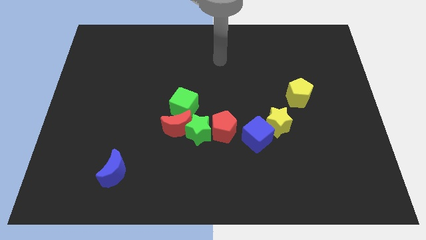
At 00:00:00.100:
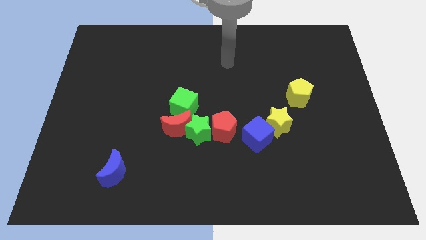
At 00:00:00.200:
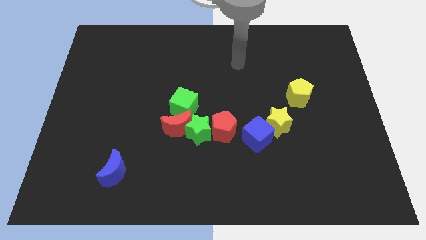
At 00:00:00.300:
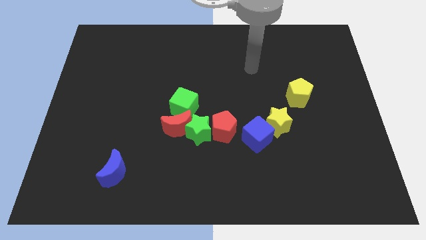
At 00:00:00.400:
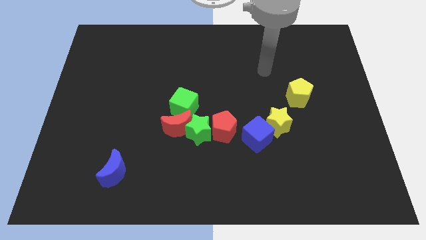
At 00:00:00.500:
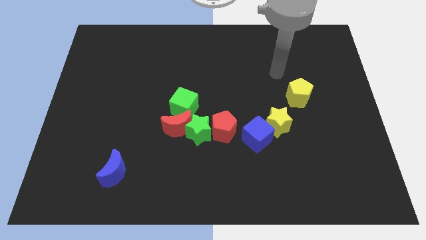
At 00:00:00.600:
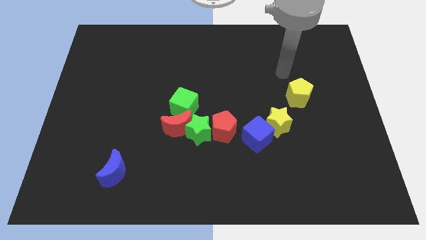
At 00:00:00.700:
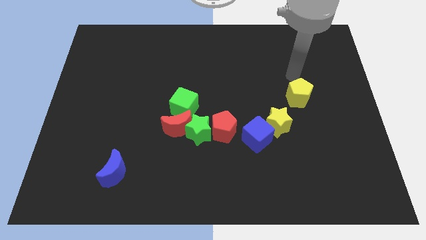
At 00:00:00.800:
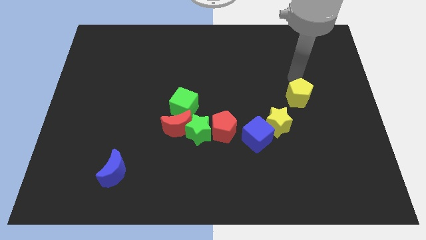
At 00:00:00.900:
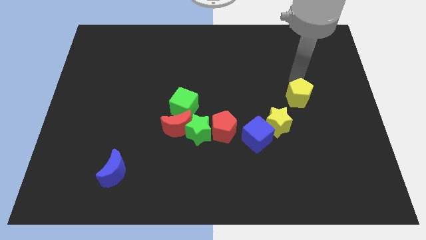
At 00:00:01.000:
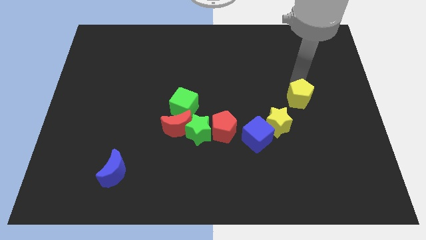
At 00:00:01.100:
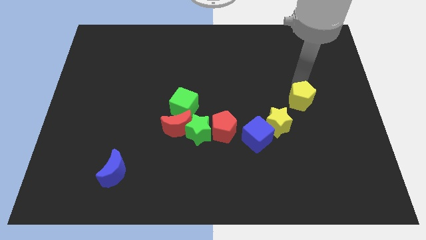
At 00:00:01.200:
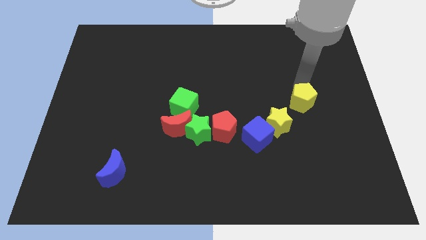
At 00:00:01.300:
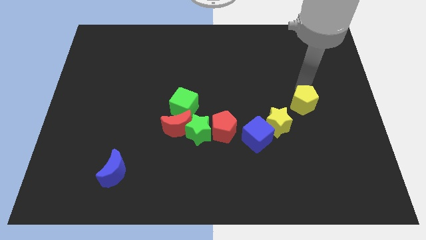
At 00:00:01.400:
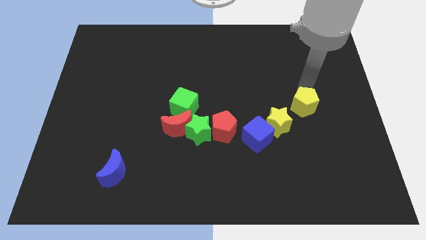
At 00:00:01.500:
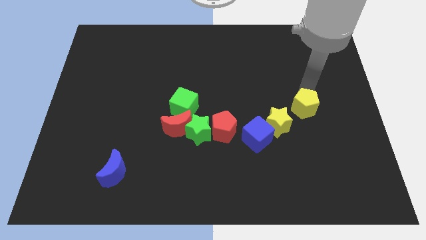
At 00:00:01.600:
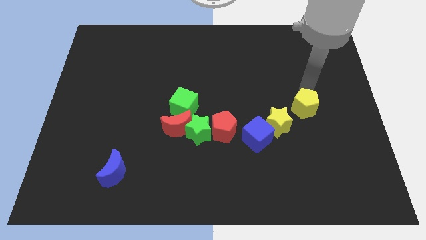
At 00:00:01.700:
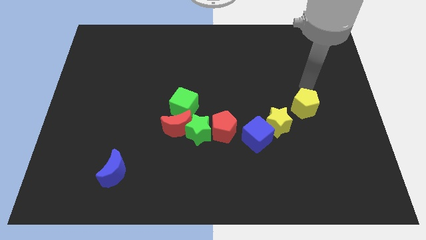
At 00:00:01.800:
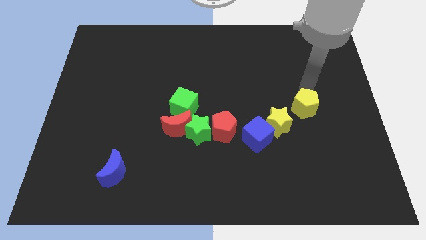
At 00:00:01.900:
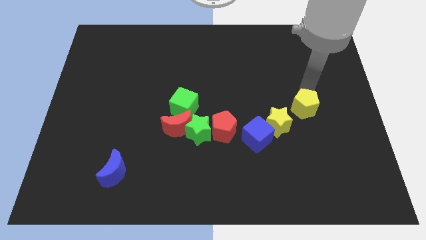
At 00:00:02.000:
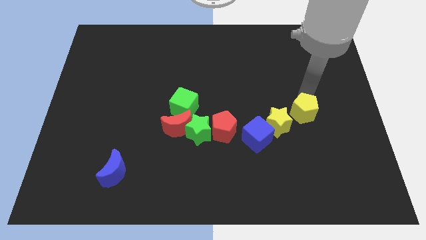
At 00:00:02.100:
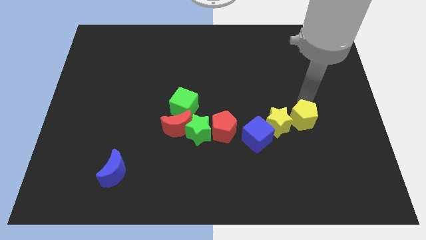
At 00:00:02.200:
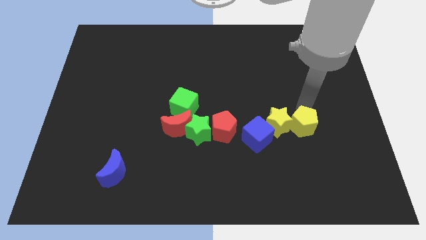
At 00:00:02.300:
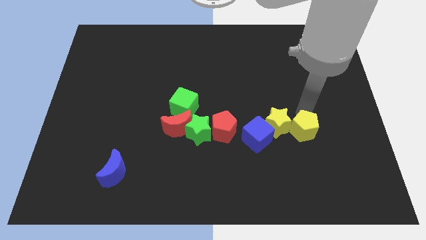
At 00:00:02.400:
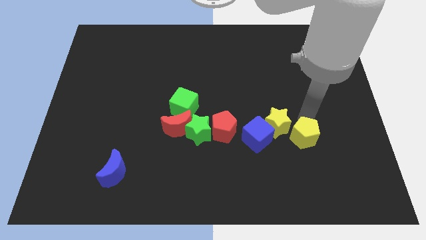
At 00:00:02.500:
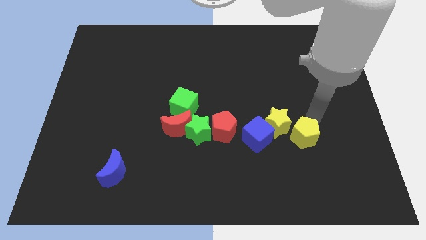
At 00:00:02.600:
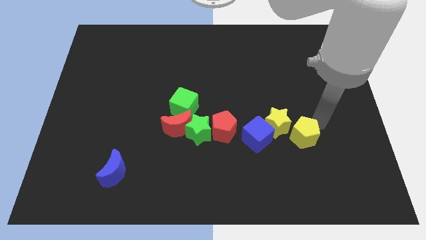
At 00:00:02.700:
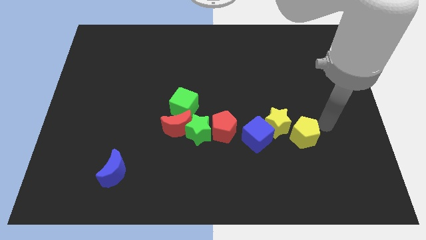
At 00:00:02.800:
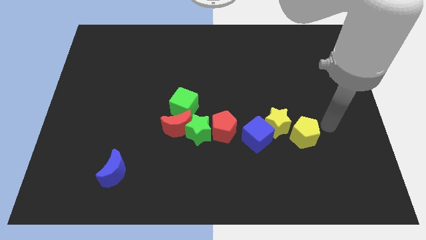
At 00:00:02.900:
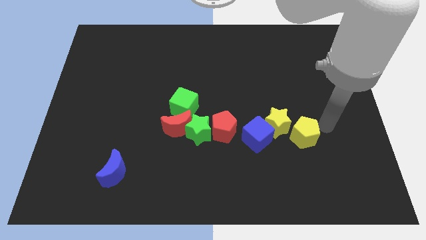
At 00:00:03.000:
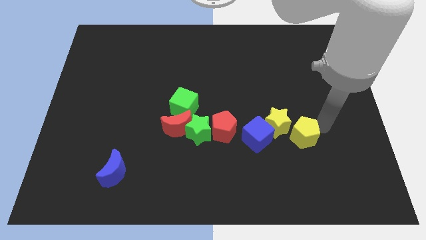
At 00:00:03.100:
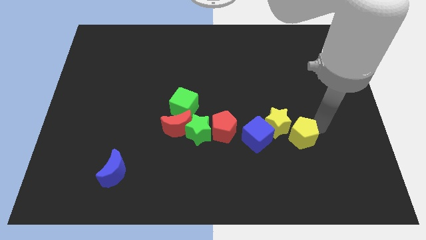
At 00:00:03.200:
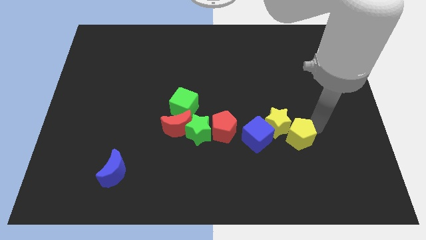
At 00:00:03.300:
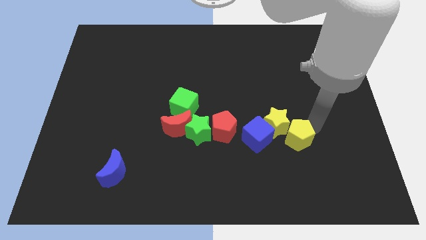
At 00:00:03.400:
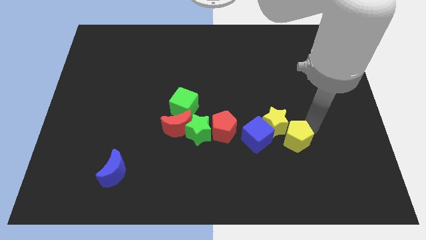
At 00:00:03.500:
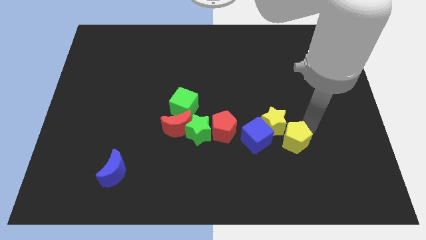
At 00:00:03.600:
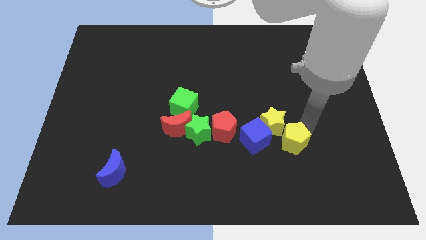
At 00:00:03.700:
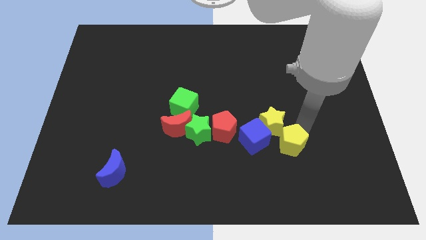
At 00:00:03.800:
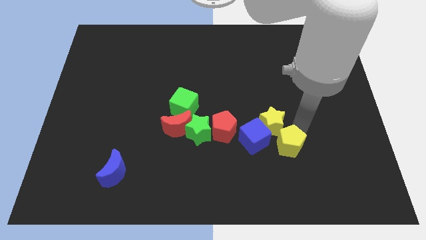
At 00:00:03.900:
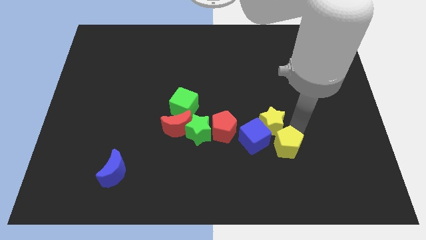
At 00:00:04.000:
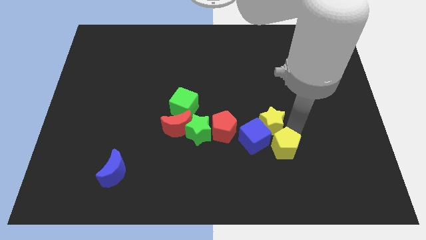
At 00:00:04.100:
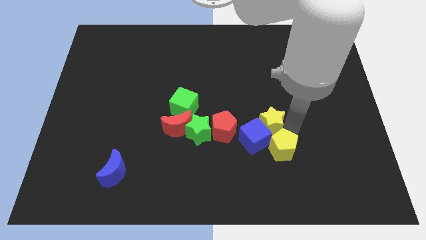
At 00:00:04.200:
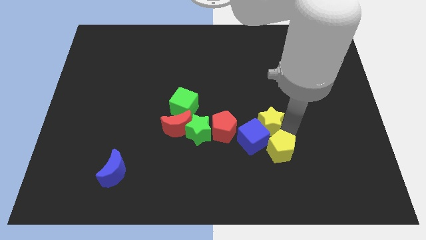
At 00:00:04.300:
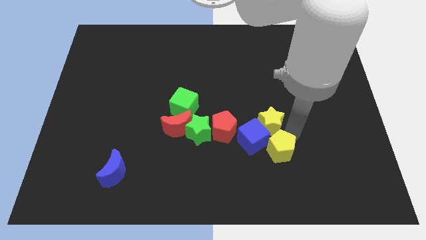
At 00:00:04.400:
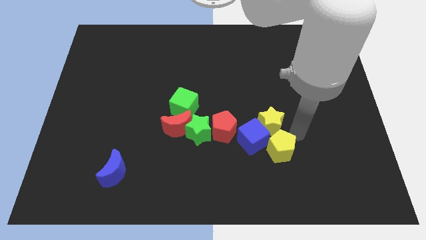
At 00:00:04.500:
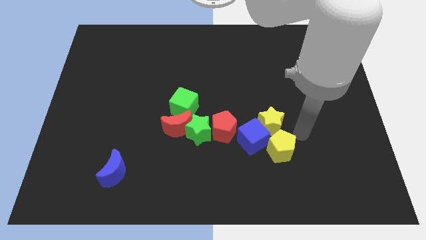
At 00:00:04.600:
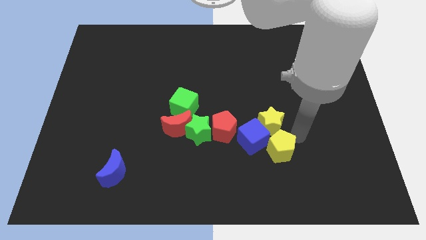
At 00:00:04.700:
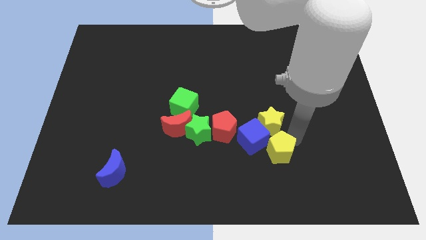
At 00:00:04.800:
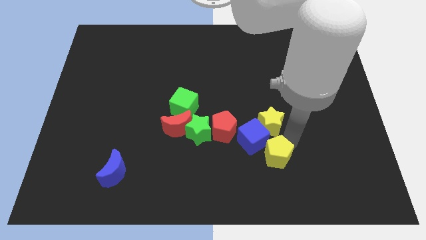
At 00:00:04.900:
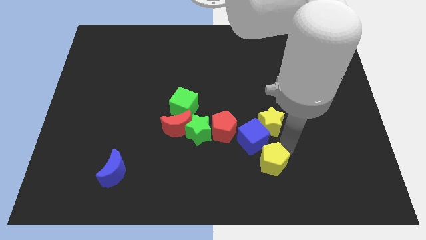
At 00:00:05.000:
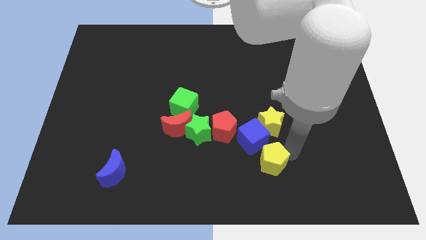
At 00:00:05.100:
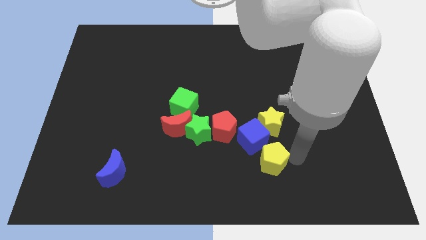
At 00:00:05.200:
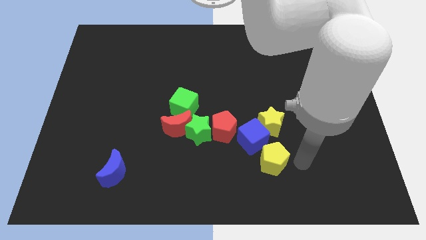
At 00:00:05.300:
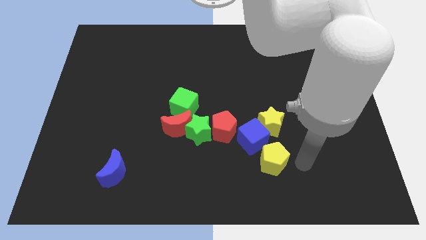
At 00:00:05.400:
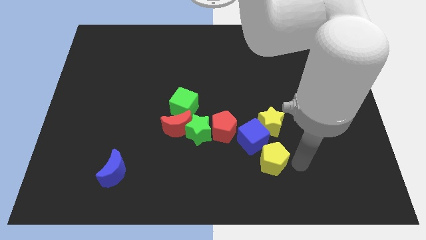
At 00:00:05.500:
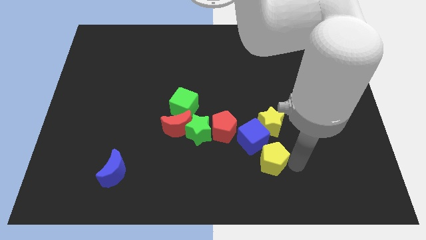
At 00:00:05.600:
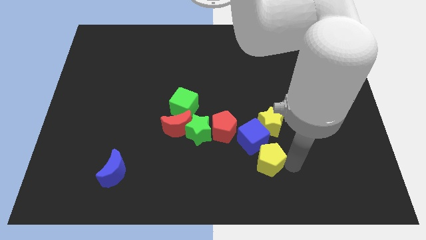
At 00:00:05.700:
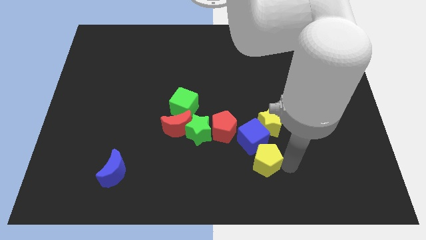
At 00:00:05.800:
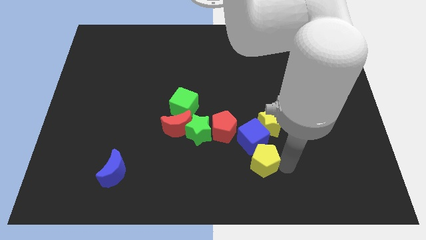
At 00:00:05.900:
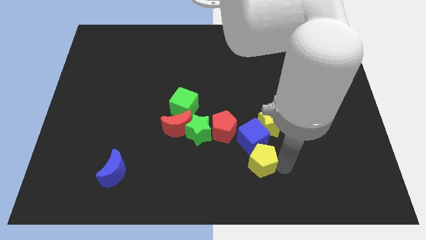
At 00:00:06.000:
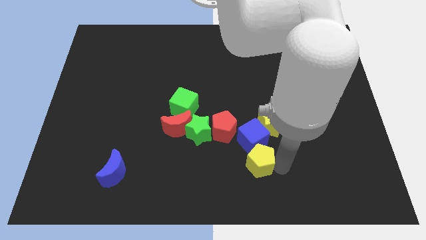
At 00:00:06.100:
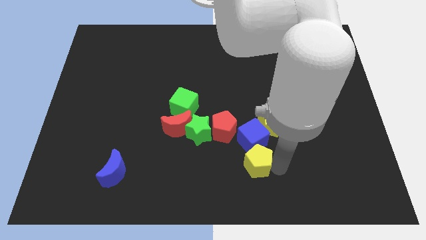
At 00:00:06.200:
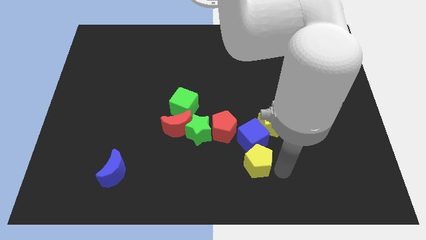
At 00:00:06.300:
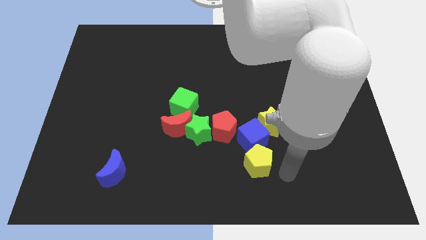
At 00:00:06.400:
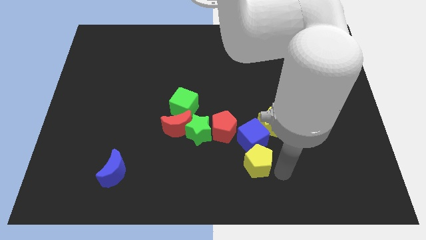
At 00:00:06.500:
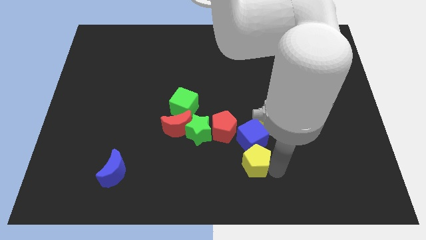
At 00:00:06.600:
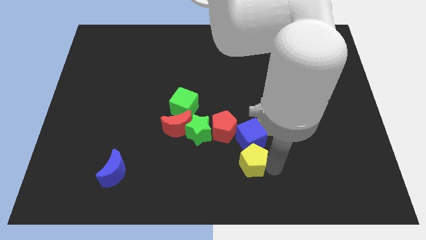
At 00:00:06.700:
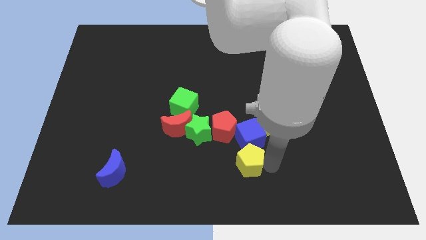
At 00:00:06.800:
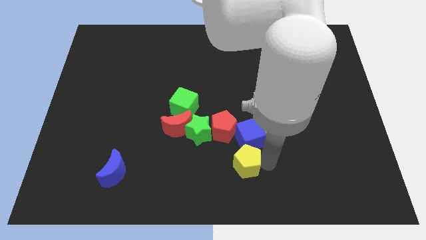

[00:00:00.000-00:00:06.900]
move the yellow pentagon to the bottom right side of the green star
